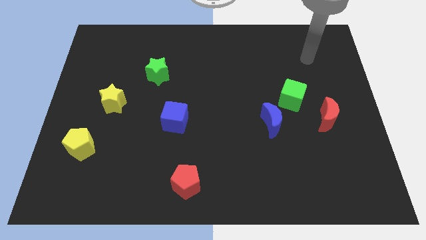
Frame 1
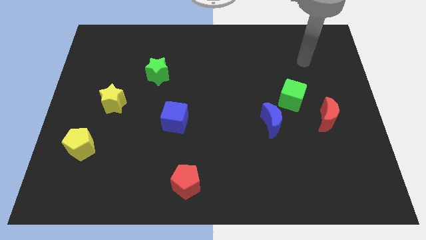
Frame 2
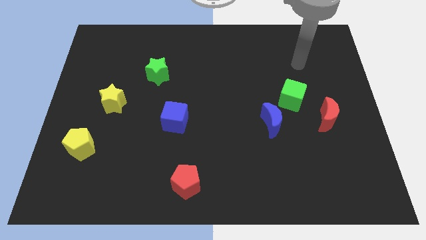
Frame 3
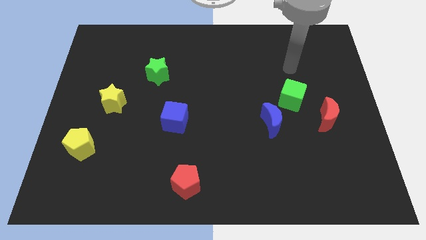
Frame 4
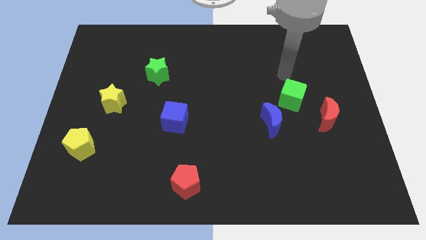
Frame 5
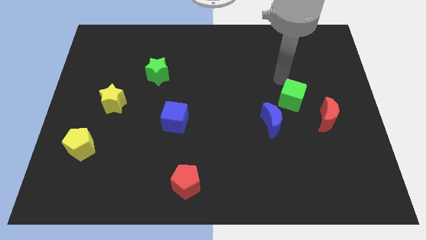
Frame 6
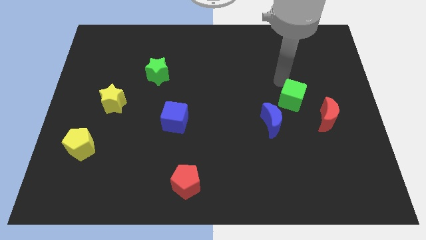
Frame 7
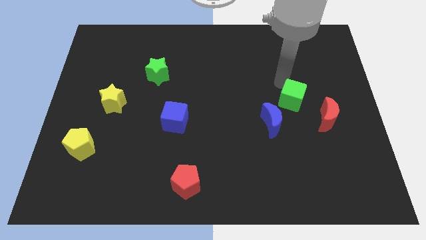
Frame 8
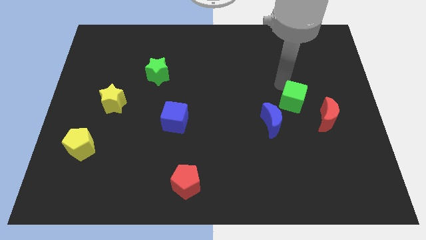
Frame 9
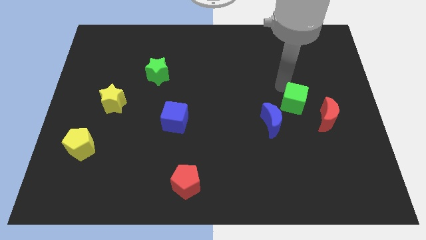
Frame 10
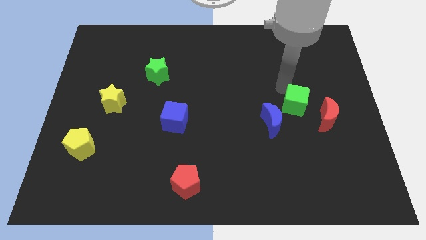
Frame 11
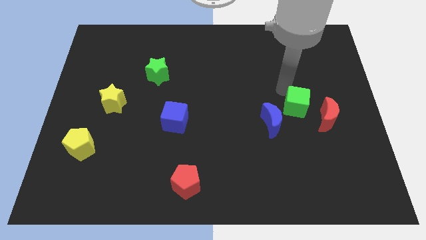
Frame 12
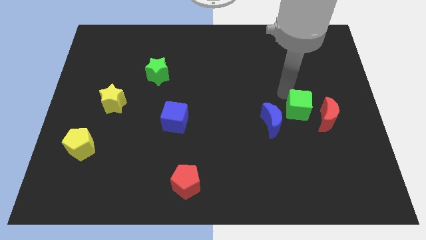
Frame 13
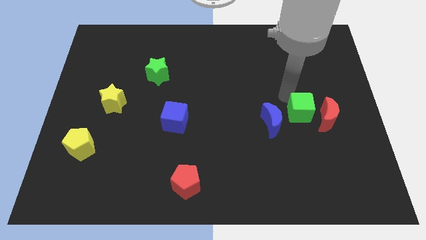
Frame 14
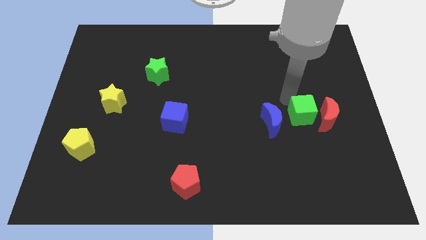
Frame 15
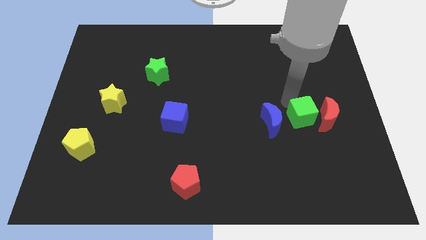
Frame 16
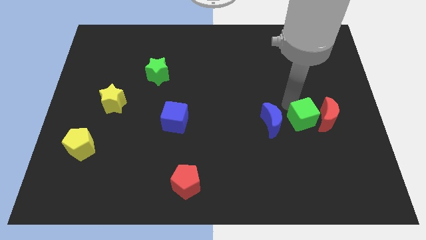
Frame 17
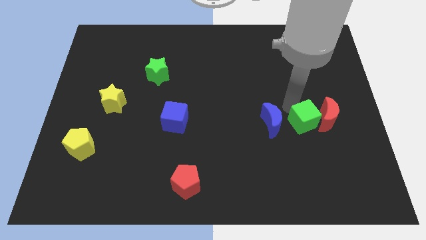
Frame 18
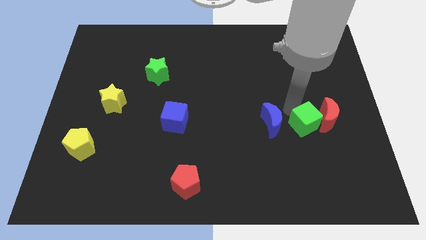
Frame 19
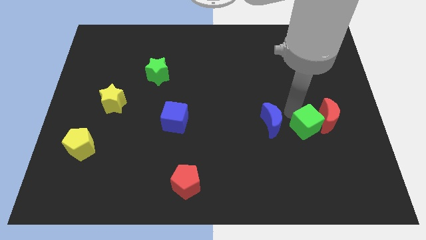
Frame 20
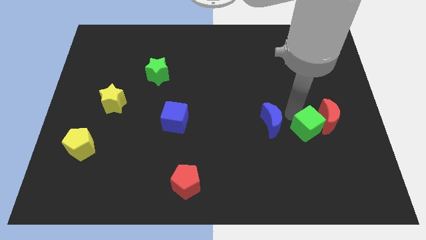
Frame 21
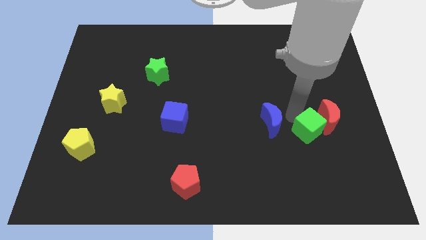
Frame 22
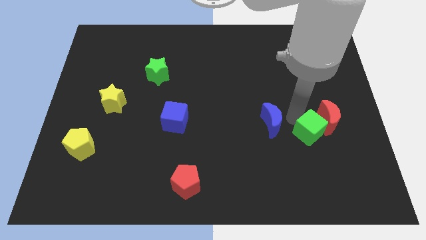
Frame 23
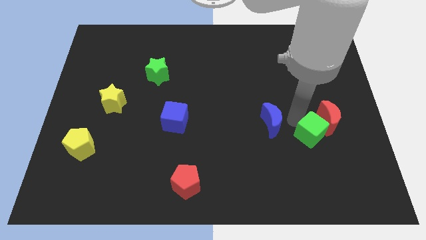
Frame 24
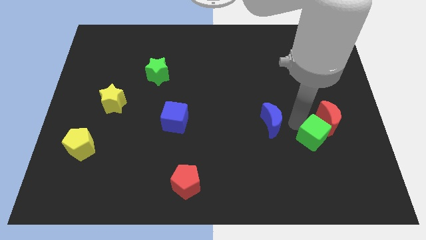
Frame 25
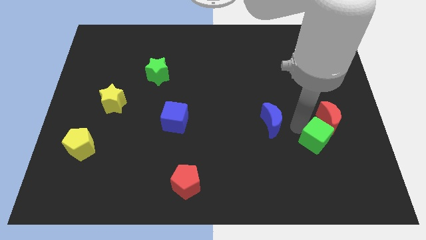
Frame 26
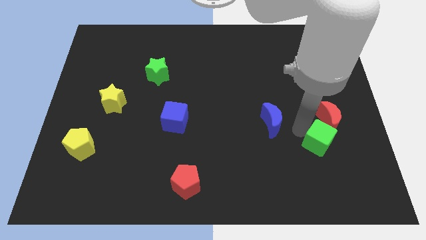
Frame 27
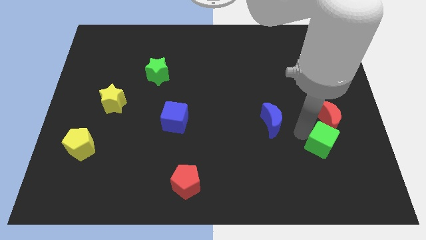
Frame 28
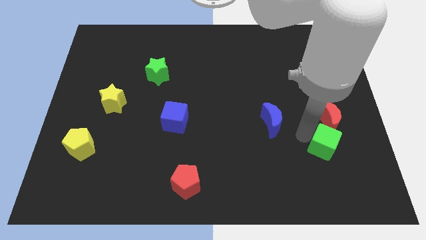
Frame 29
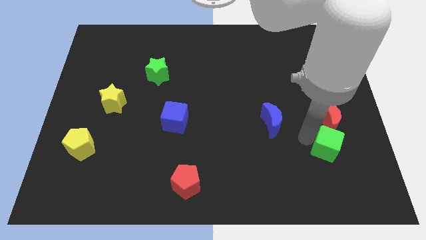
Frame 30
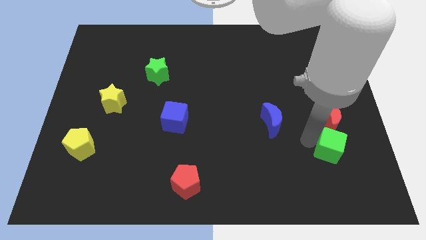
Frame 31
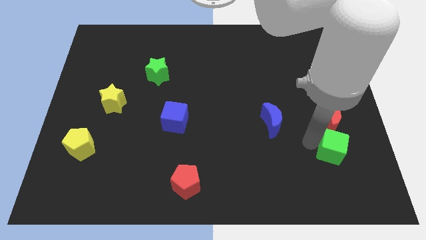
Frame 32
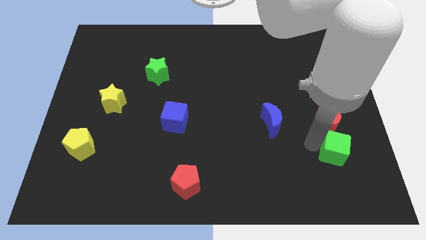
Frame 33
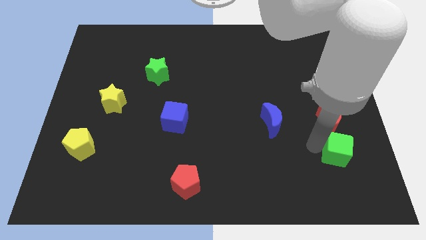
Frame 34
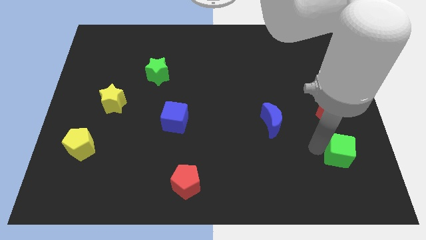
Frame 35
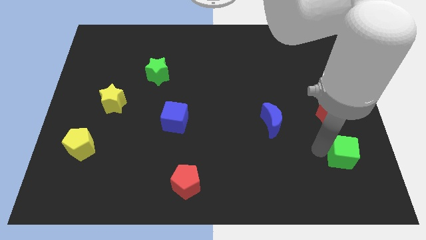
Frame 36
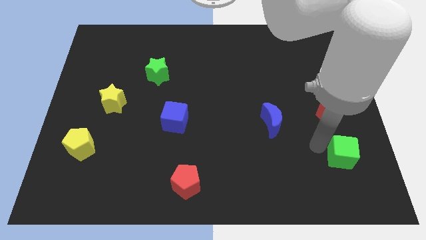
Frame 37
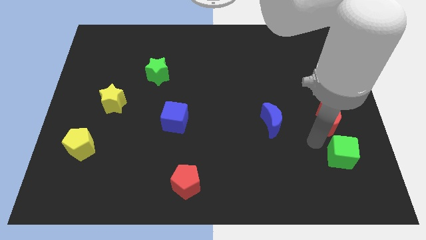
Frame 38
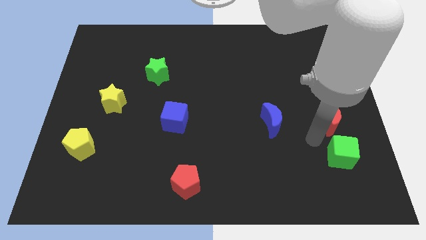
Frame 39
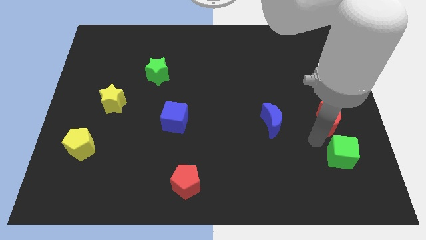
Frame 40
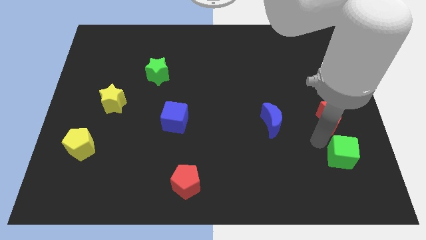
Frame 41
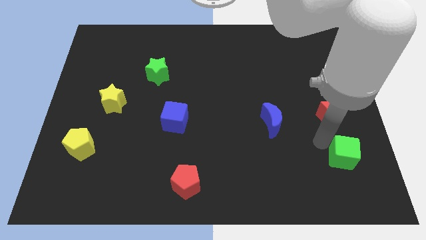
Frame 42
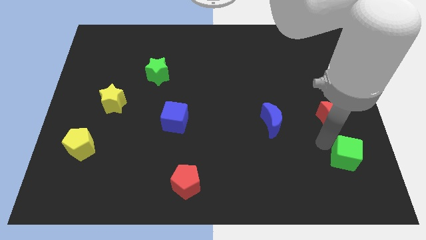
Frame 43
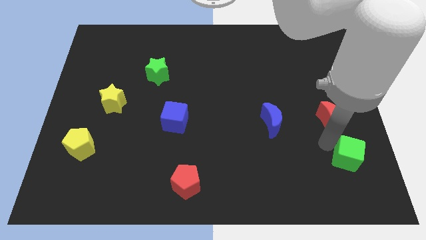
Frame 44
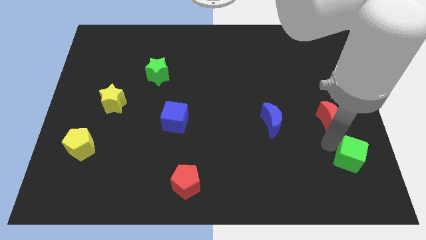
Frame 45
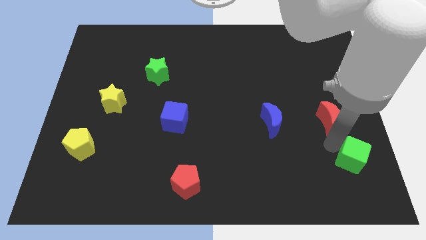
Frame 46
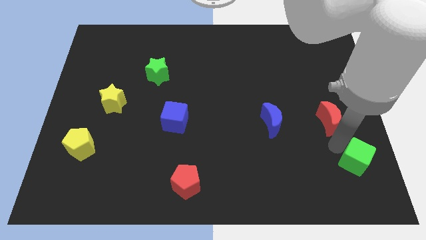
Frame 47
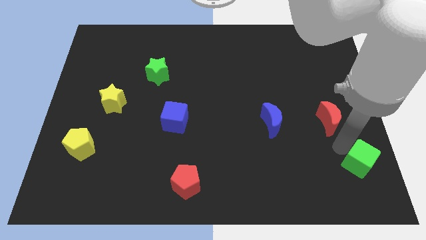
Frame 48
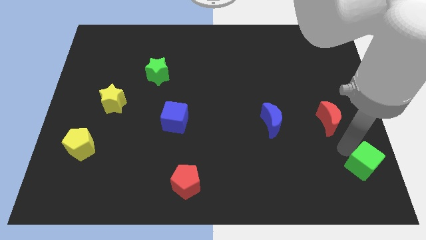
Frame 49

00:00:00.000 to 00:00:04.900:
slide the green cube to the bottom right corner

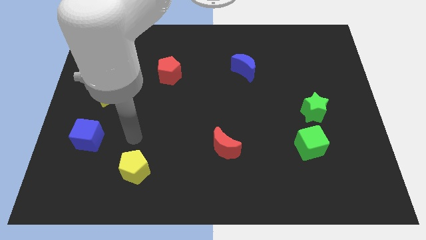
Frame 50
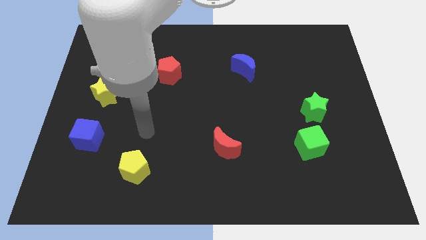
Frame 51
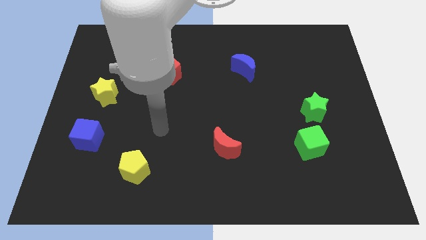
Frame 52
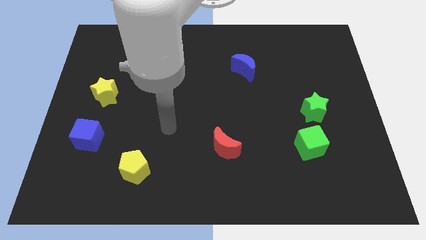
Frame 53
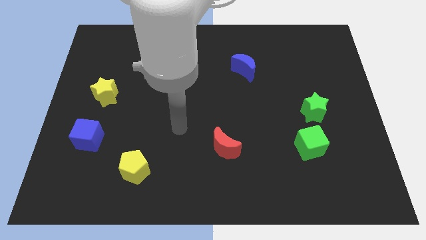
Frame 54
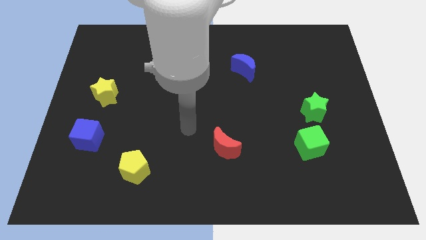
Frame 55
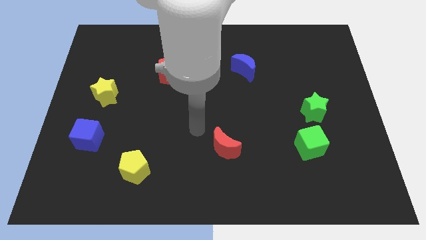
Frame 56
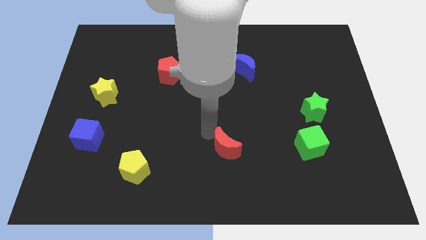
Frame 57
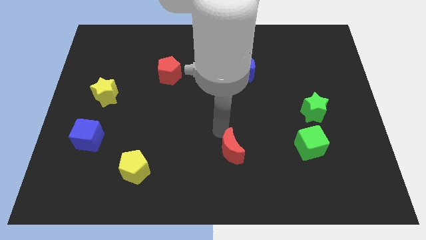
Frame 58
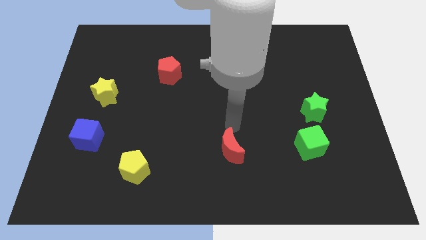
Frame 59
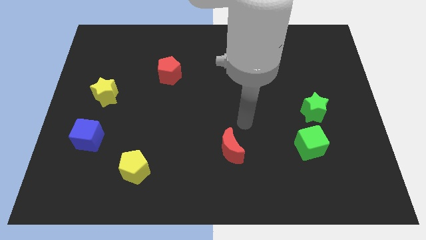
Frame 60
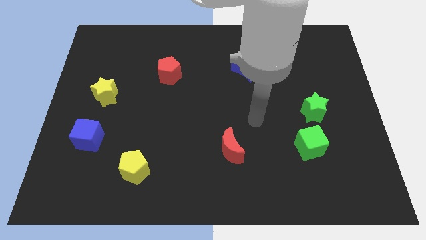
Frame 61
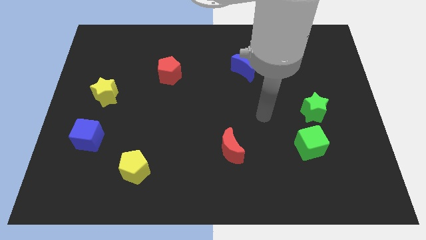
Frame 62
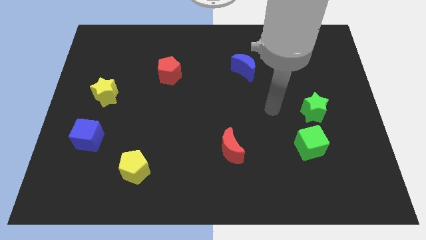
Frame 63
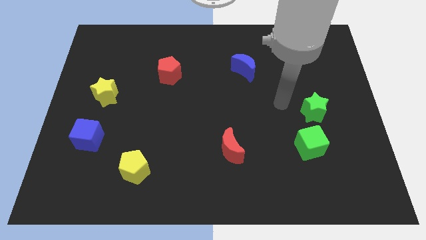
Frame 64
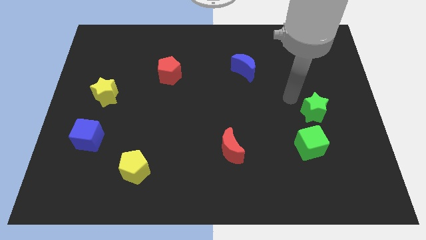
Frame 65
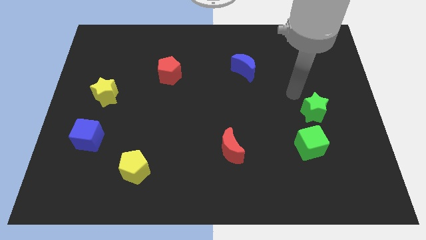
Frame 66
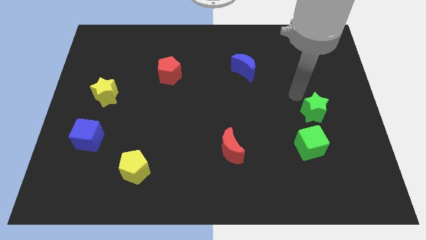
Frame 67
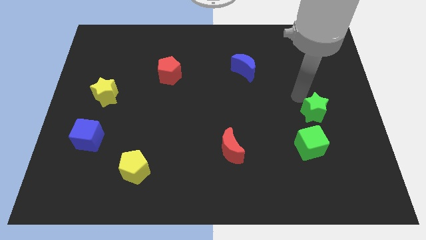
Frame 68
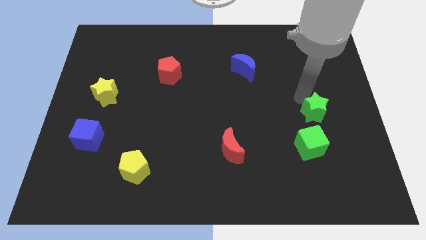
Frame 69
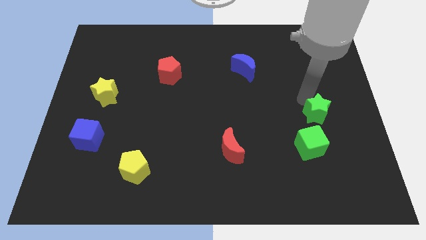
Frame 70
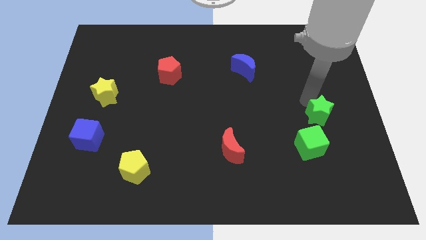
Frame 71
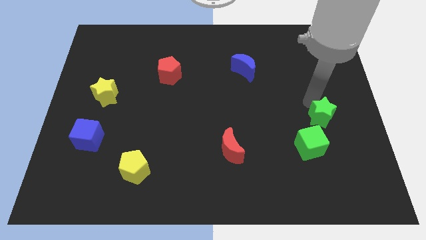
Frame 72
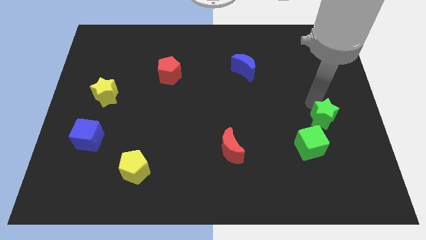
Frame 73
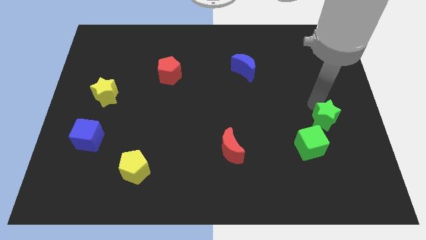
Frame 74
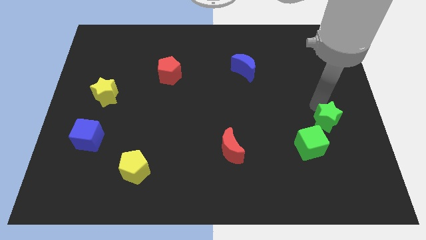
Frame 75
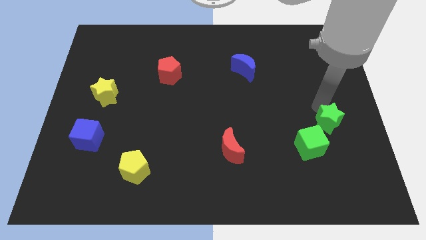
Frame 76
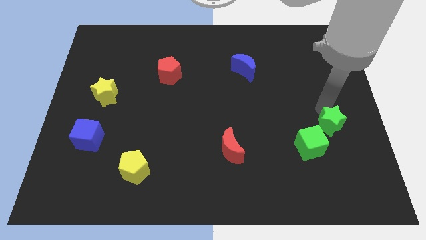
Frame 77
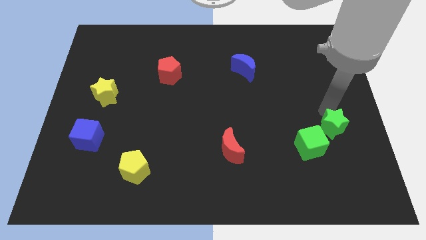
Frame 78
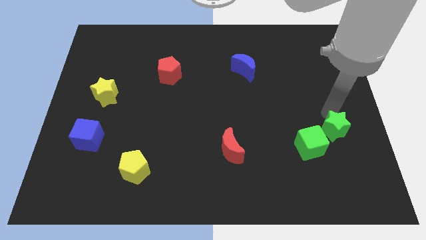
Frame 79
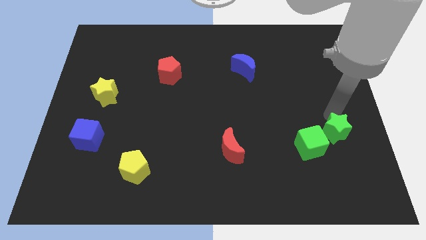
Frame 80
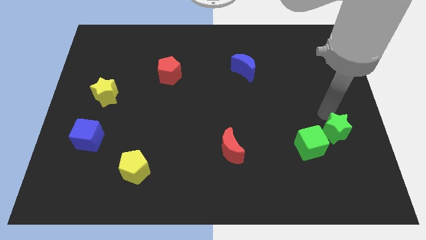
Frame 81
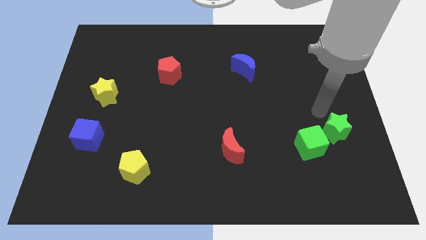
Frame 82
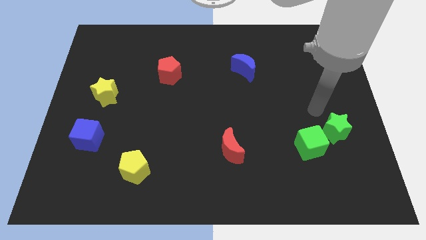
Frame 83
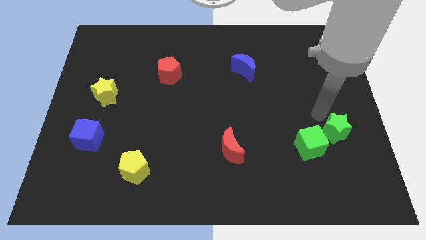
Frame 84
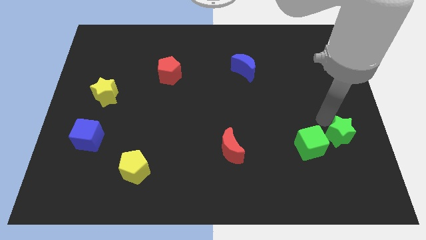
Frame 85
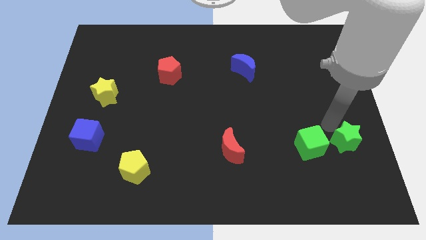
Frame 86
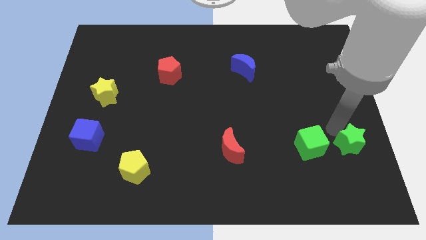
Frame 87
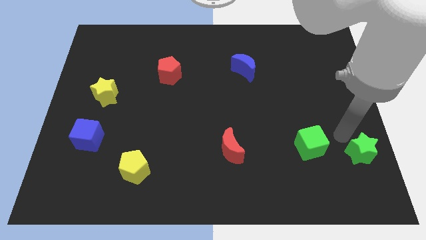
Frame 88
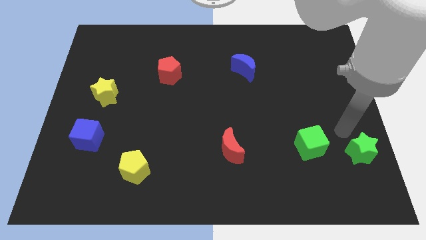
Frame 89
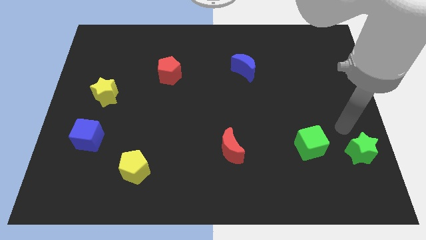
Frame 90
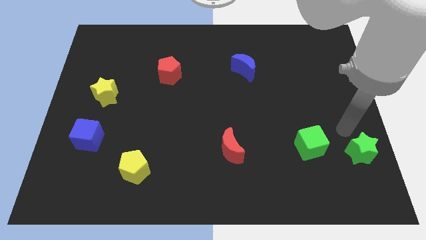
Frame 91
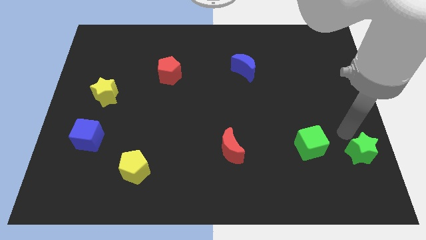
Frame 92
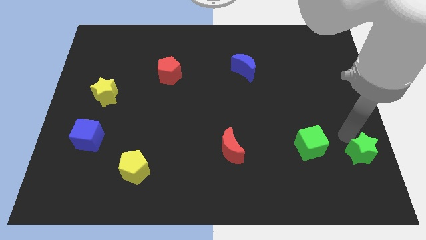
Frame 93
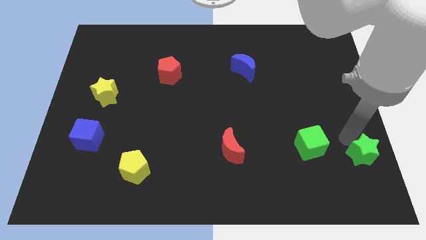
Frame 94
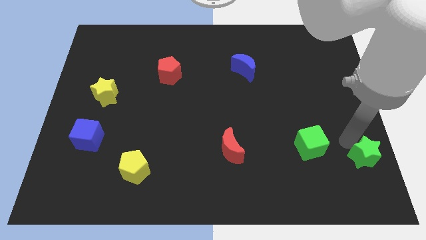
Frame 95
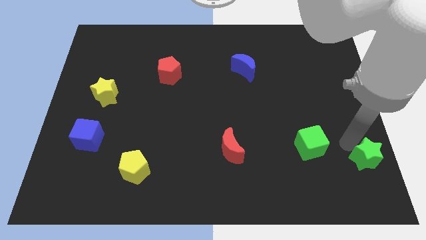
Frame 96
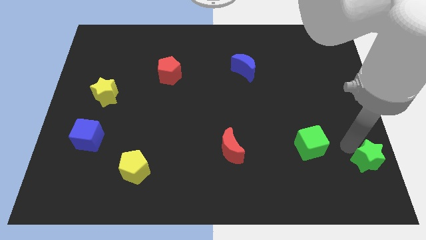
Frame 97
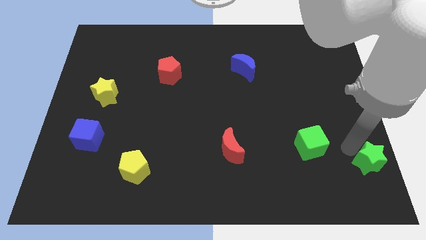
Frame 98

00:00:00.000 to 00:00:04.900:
move the green star to the bottom right corner
